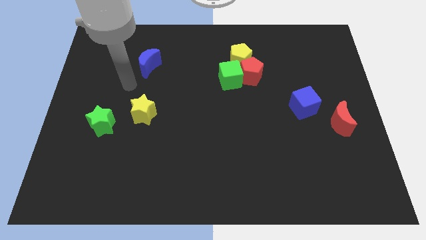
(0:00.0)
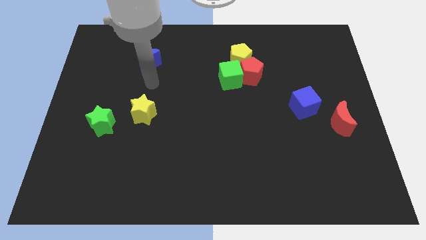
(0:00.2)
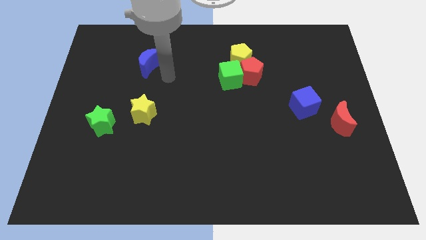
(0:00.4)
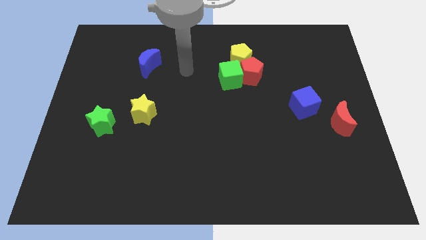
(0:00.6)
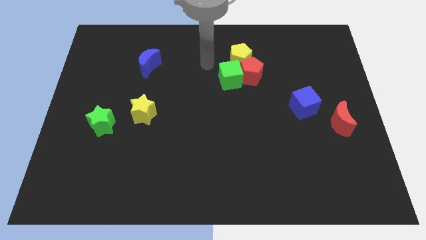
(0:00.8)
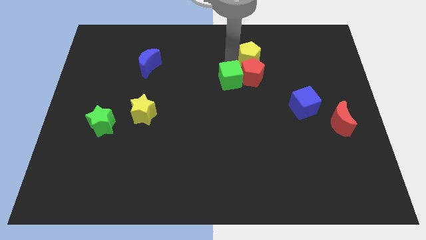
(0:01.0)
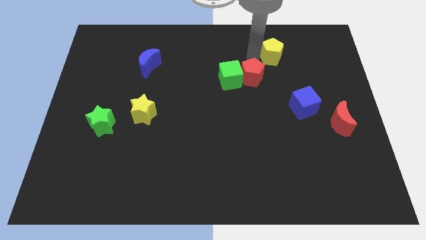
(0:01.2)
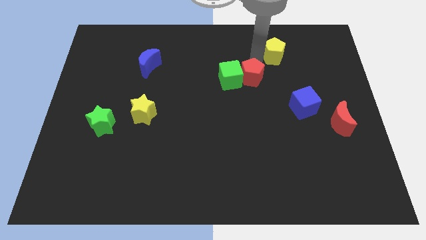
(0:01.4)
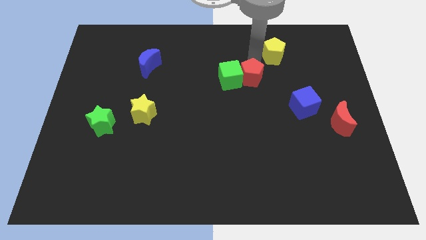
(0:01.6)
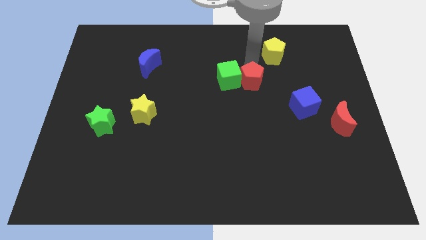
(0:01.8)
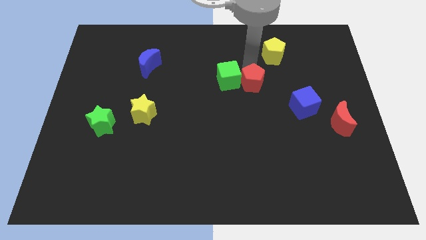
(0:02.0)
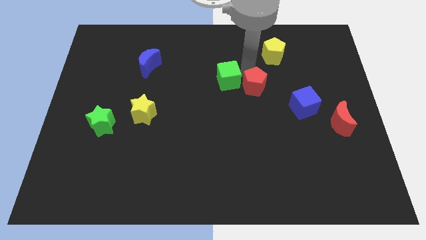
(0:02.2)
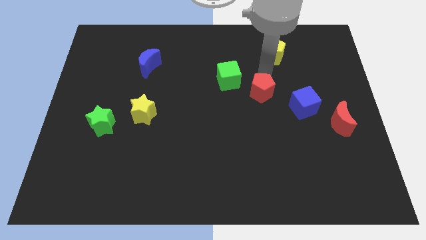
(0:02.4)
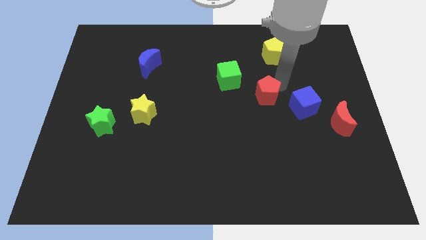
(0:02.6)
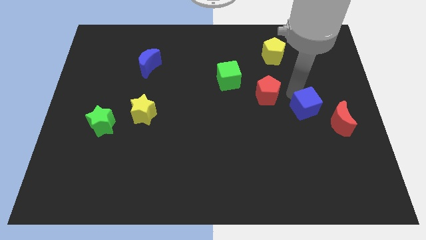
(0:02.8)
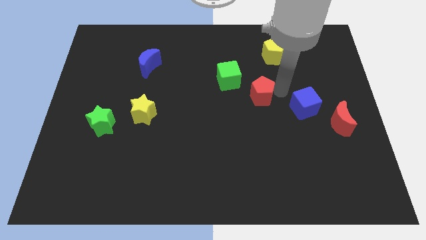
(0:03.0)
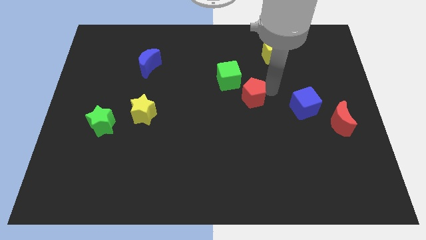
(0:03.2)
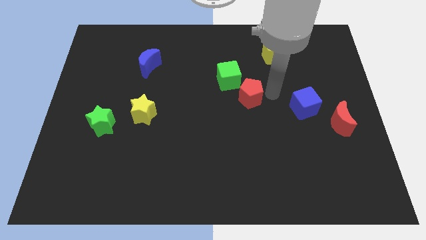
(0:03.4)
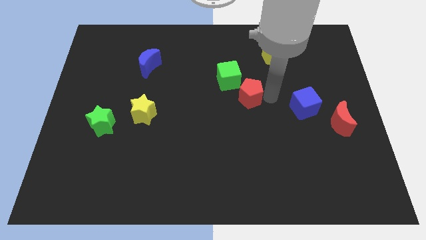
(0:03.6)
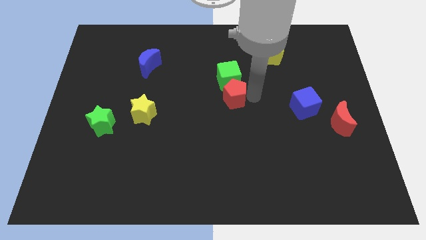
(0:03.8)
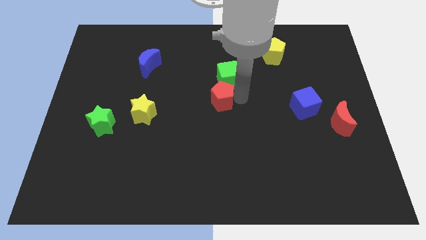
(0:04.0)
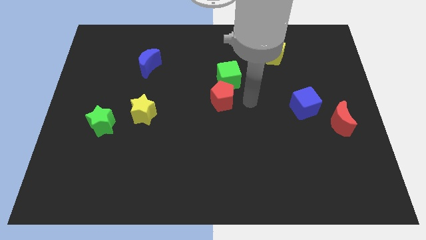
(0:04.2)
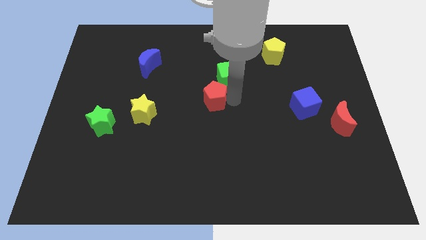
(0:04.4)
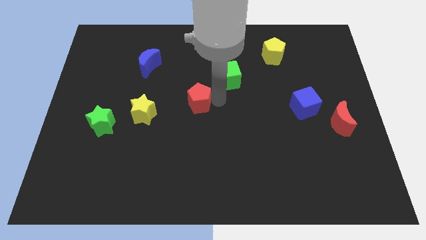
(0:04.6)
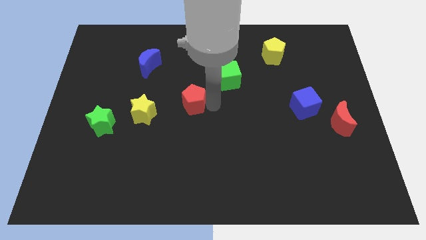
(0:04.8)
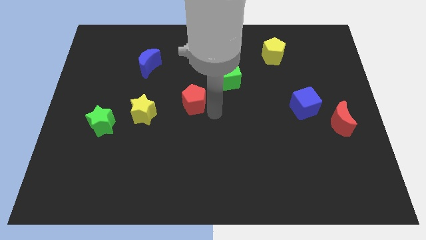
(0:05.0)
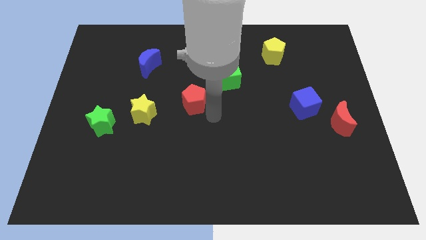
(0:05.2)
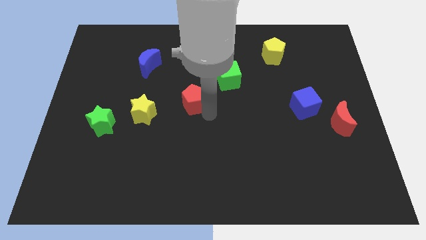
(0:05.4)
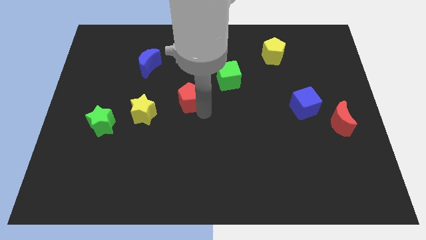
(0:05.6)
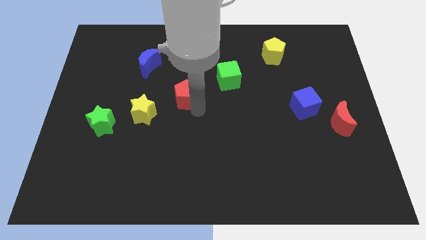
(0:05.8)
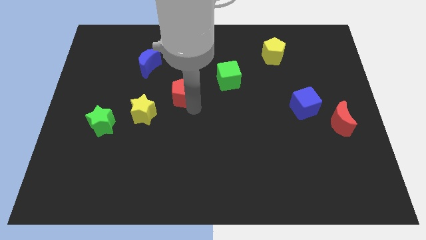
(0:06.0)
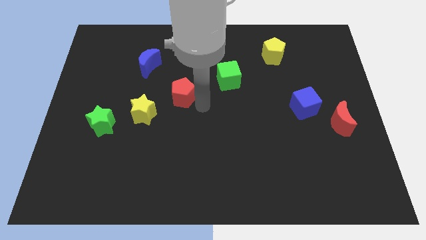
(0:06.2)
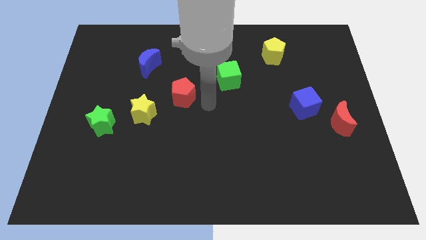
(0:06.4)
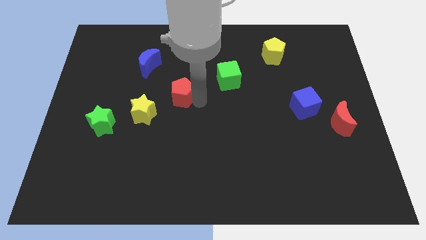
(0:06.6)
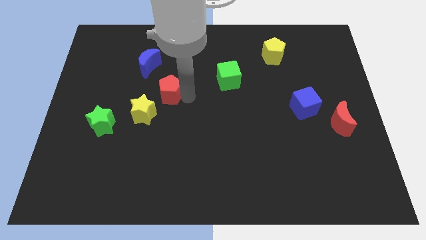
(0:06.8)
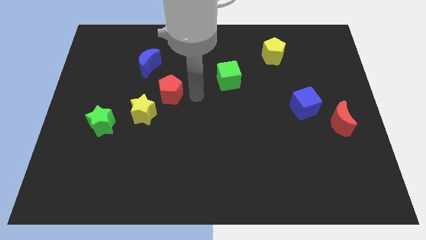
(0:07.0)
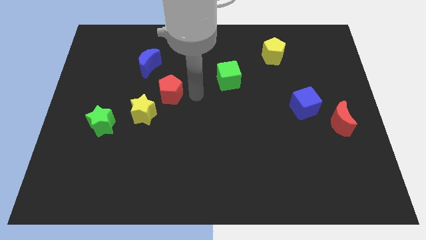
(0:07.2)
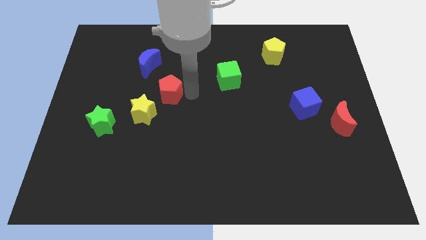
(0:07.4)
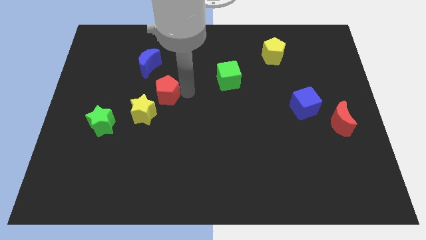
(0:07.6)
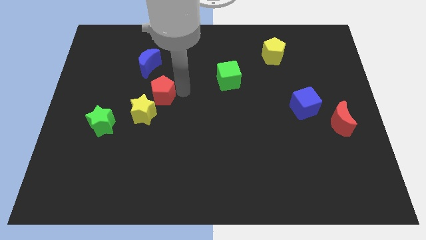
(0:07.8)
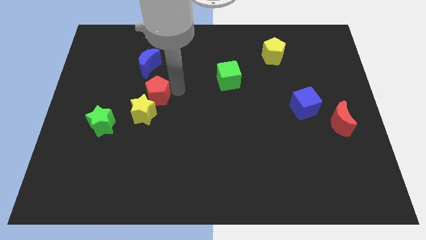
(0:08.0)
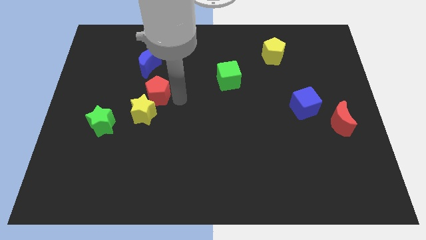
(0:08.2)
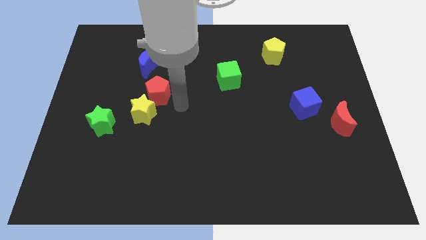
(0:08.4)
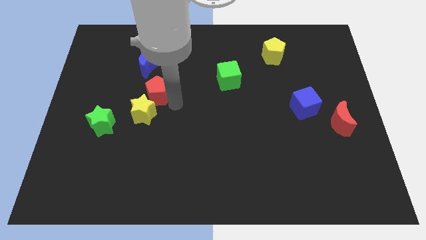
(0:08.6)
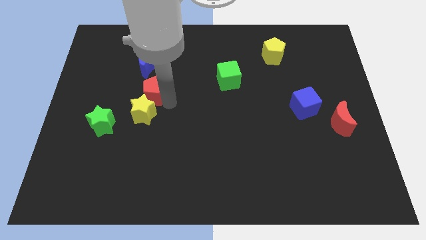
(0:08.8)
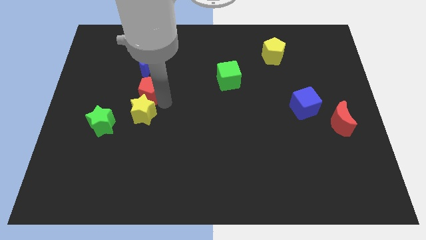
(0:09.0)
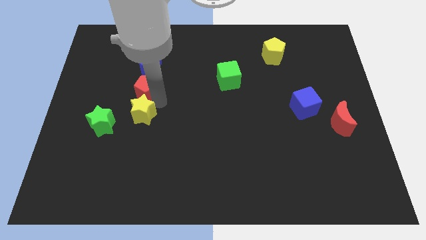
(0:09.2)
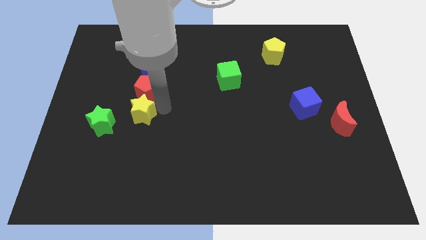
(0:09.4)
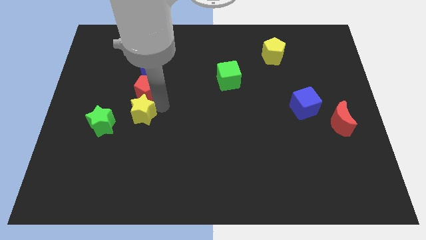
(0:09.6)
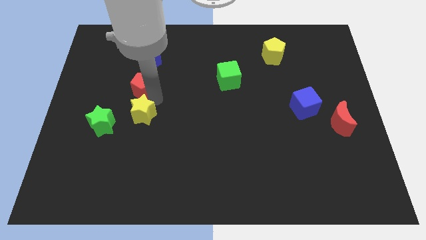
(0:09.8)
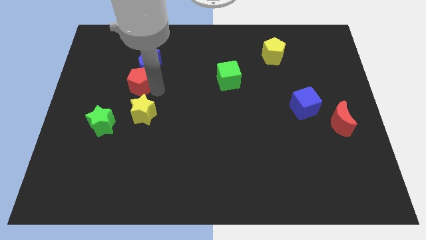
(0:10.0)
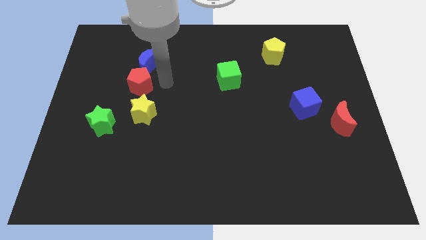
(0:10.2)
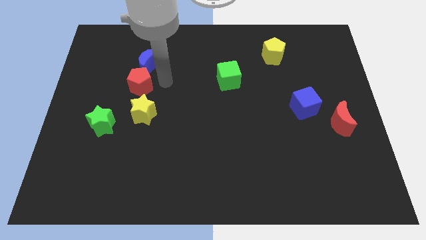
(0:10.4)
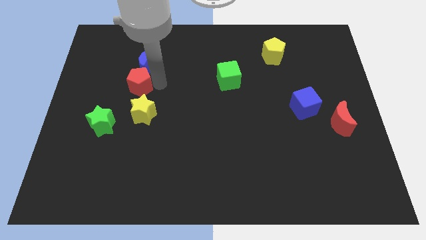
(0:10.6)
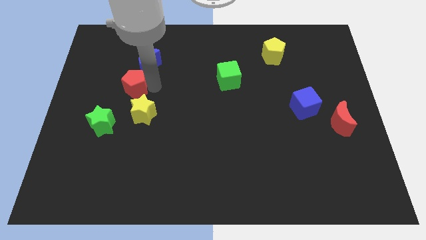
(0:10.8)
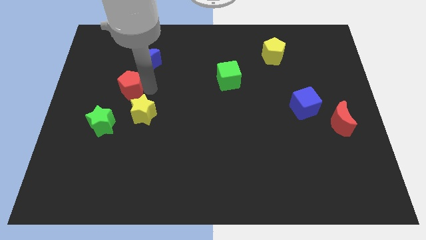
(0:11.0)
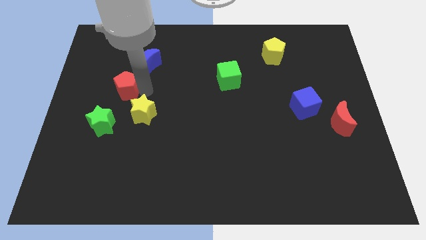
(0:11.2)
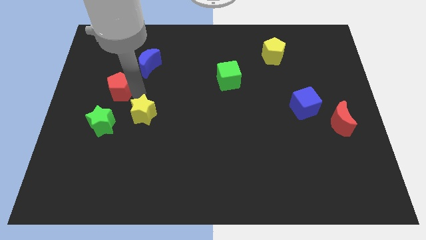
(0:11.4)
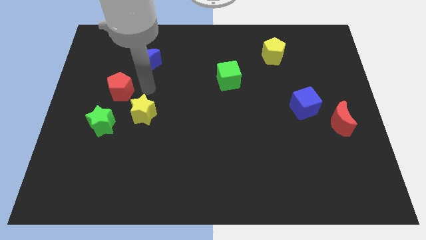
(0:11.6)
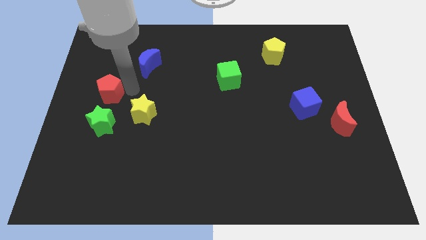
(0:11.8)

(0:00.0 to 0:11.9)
move the red pentagon to the left side of the board

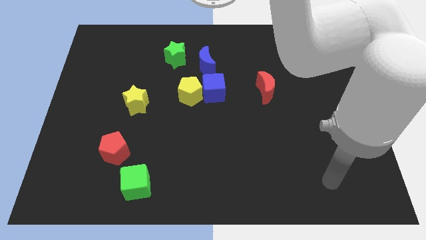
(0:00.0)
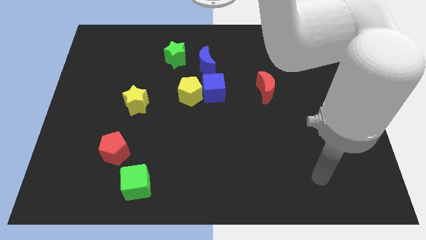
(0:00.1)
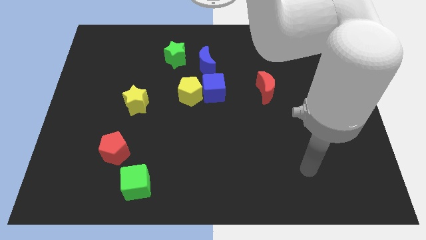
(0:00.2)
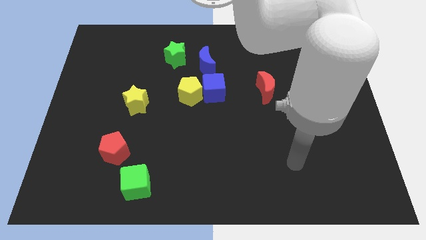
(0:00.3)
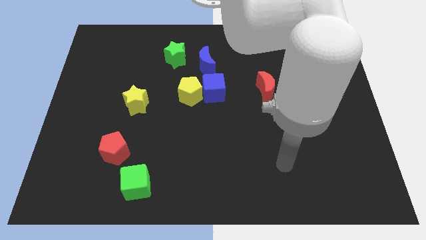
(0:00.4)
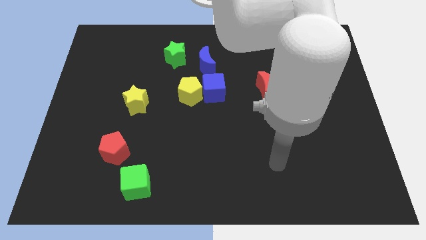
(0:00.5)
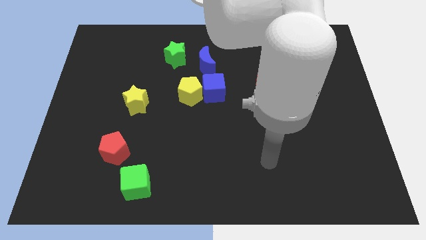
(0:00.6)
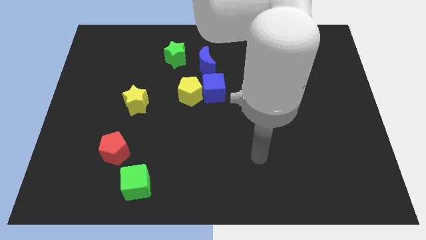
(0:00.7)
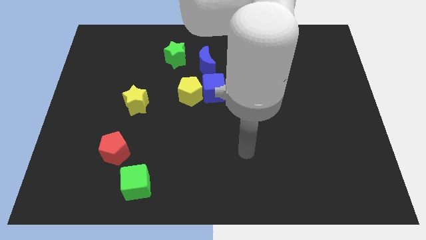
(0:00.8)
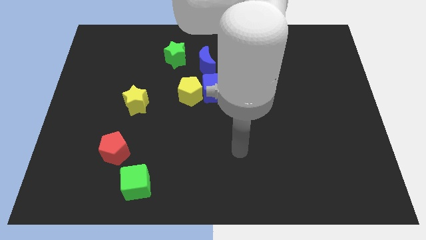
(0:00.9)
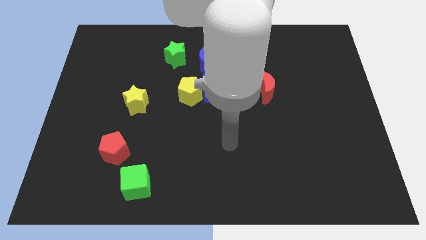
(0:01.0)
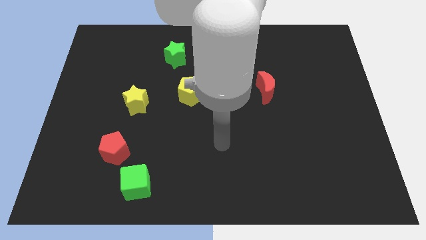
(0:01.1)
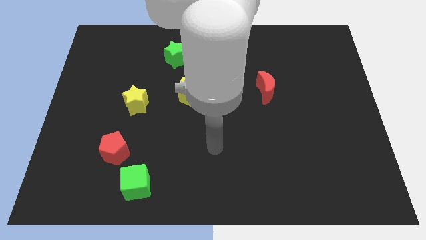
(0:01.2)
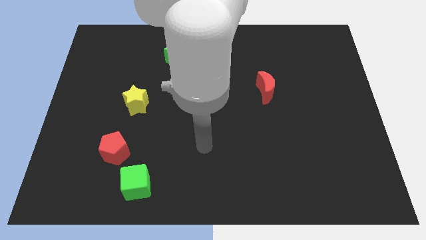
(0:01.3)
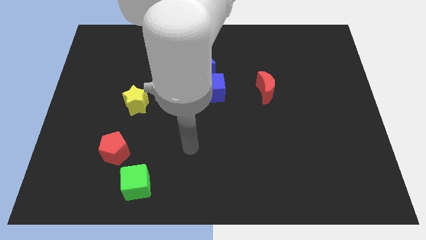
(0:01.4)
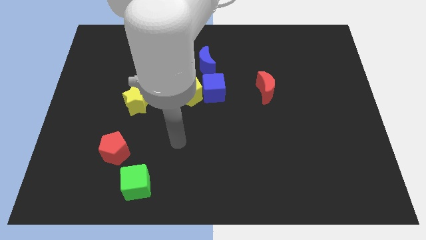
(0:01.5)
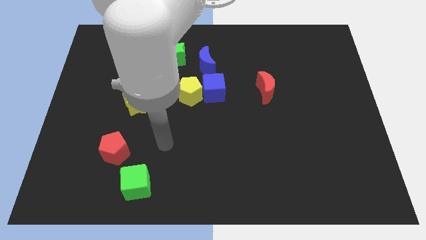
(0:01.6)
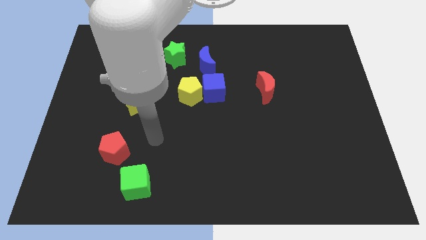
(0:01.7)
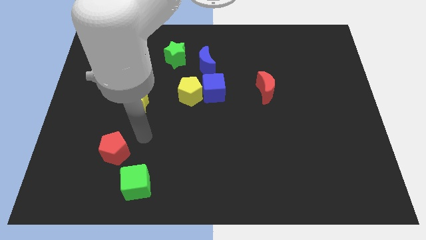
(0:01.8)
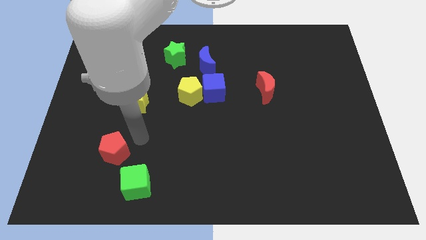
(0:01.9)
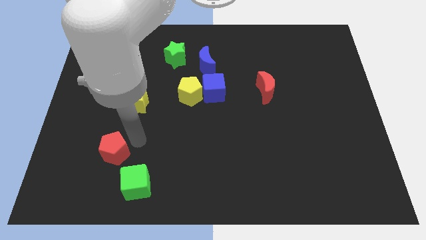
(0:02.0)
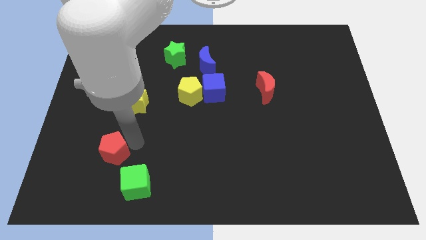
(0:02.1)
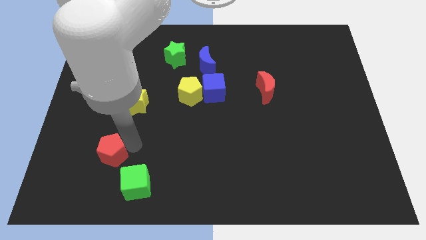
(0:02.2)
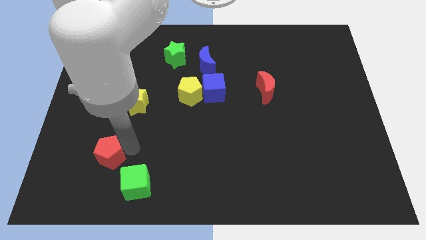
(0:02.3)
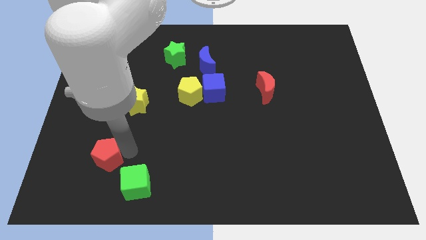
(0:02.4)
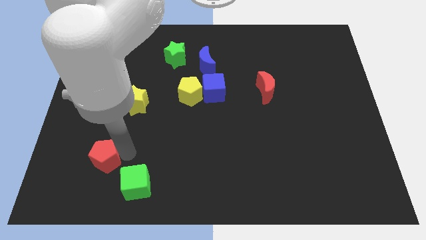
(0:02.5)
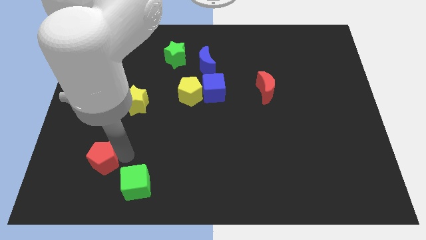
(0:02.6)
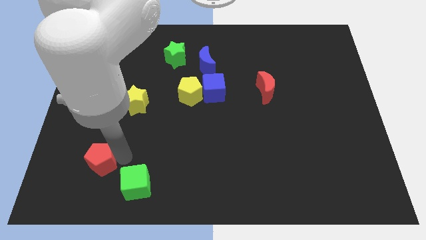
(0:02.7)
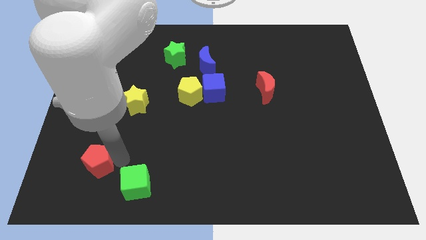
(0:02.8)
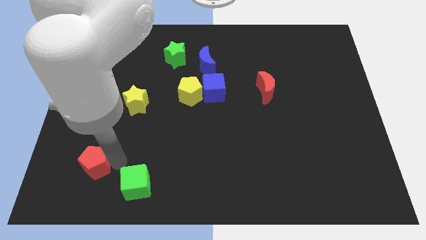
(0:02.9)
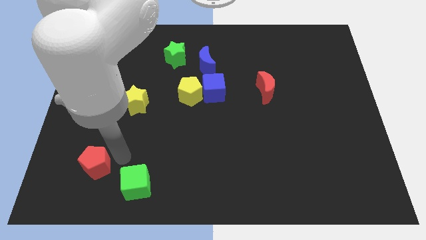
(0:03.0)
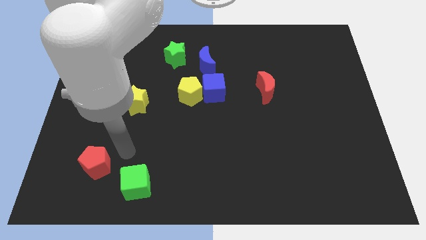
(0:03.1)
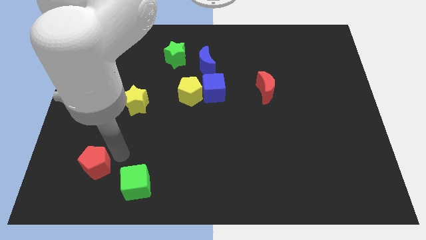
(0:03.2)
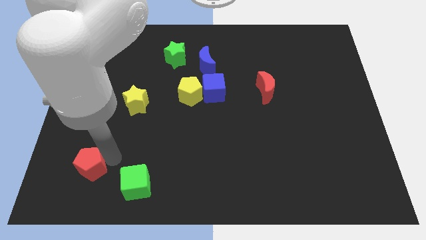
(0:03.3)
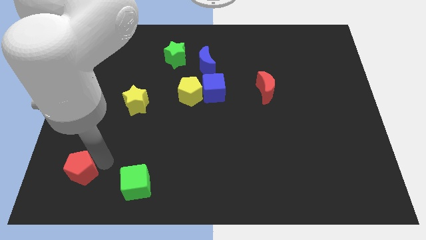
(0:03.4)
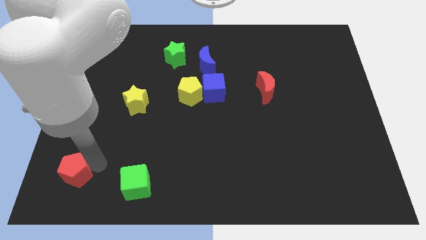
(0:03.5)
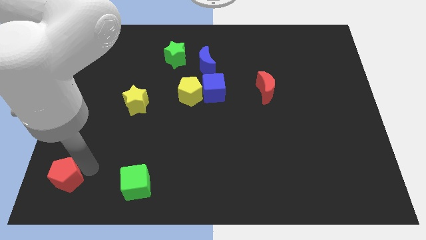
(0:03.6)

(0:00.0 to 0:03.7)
put the red pentagon to the bottom left corner
